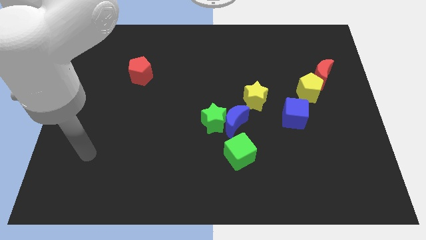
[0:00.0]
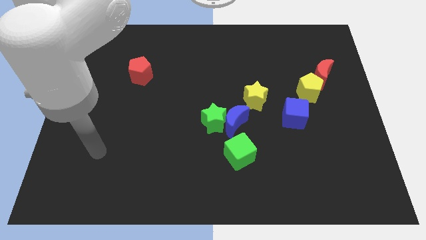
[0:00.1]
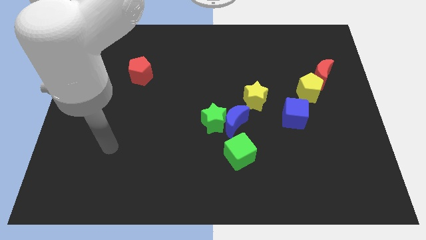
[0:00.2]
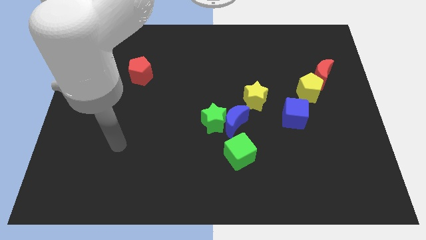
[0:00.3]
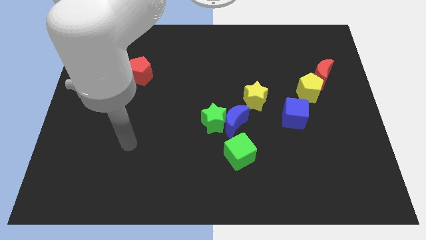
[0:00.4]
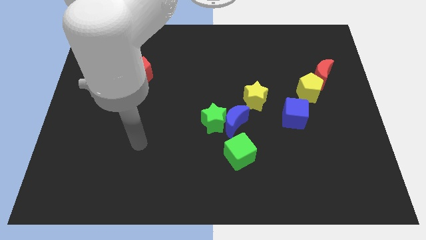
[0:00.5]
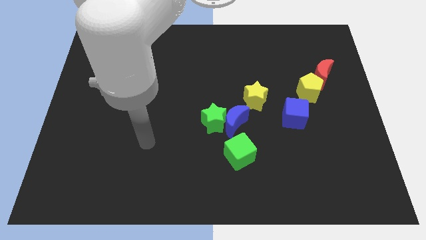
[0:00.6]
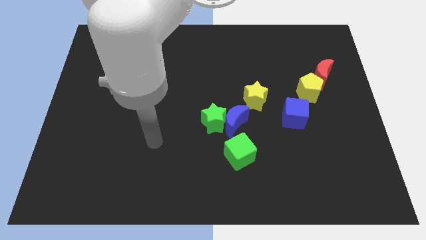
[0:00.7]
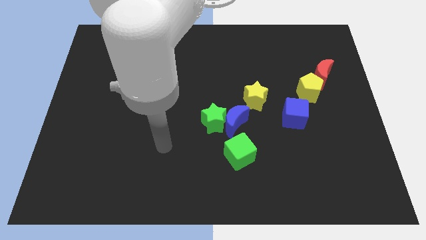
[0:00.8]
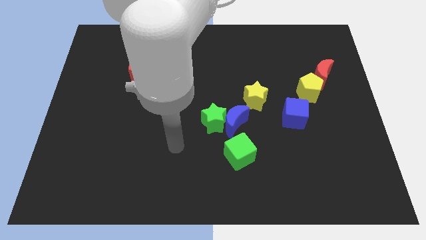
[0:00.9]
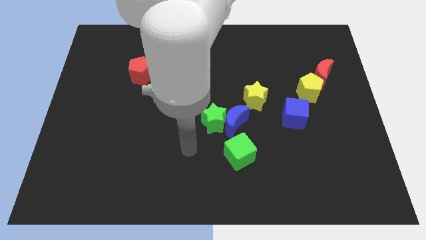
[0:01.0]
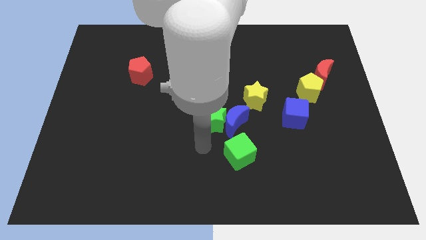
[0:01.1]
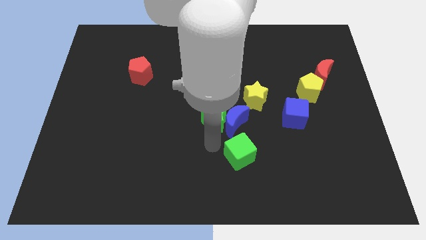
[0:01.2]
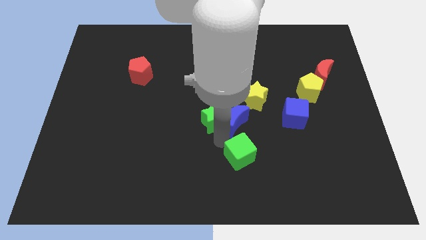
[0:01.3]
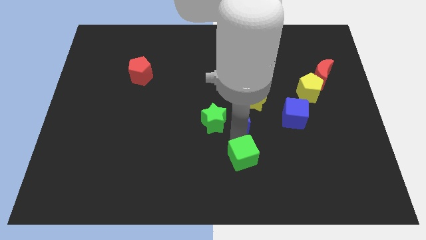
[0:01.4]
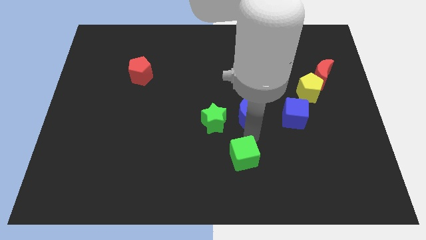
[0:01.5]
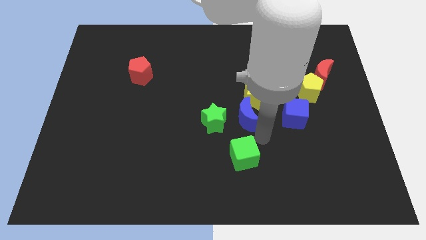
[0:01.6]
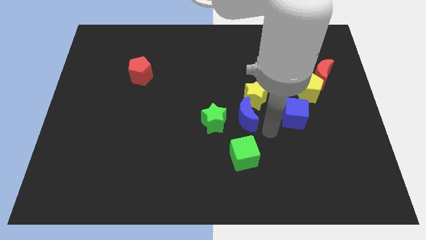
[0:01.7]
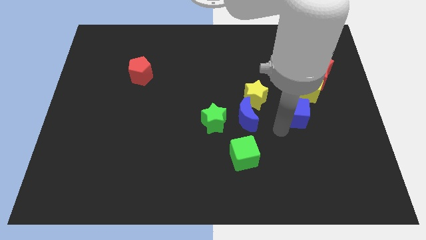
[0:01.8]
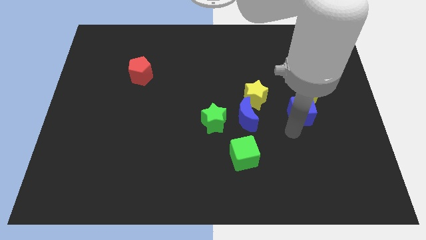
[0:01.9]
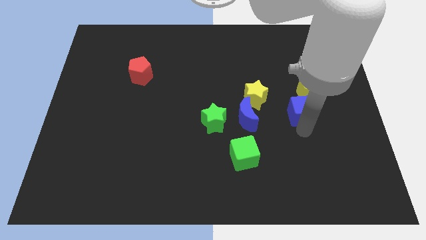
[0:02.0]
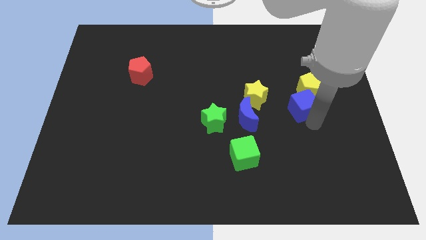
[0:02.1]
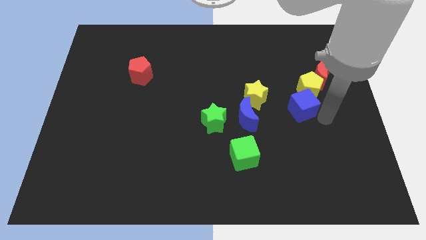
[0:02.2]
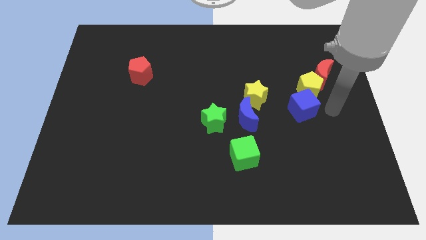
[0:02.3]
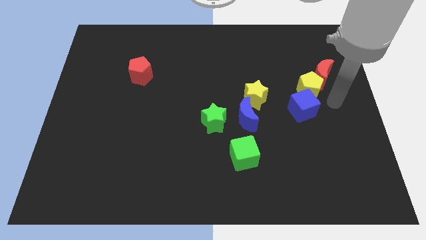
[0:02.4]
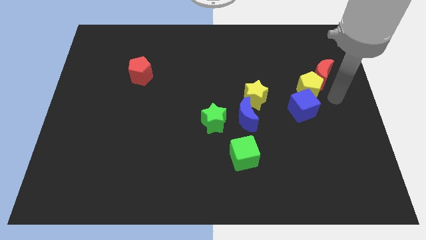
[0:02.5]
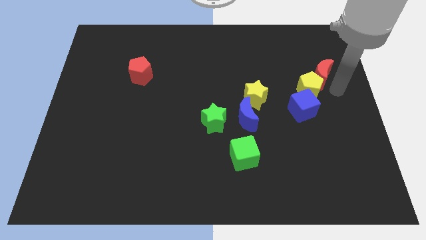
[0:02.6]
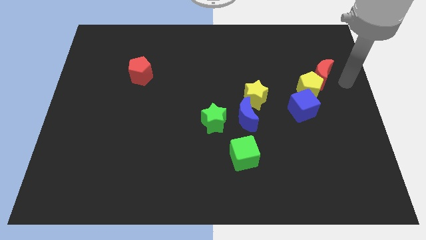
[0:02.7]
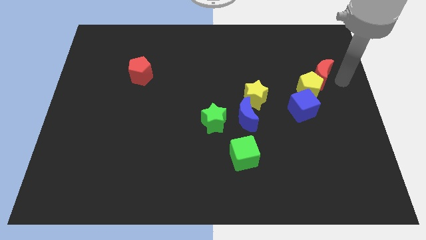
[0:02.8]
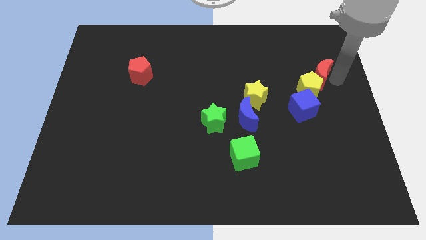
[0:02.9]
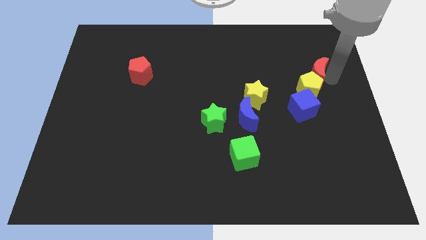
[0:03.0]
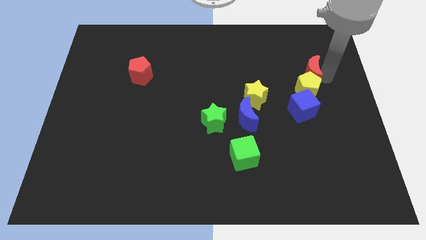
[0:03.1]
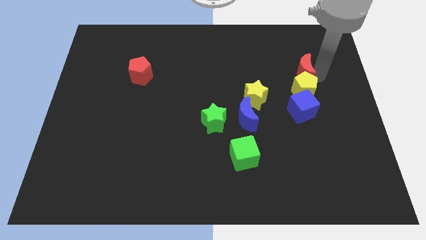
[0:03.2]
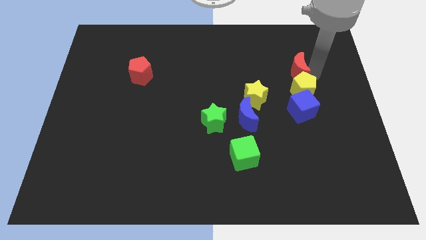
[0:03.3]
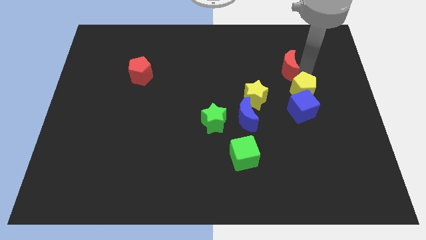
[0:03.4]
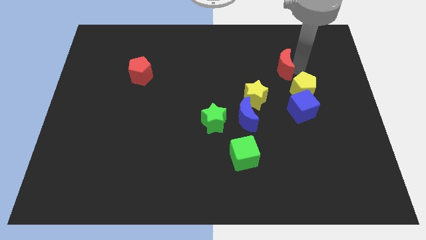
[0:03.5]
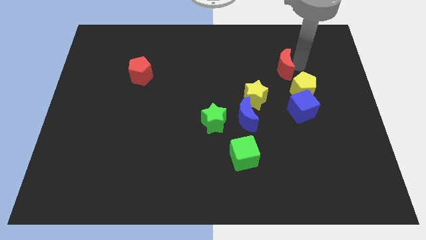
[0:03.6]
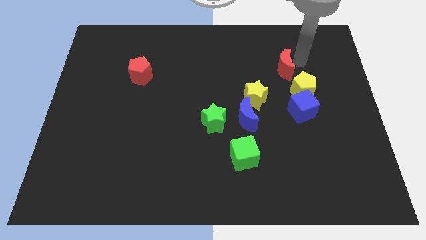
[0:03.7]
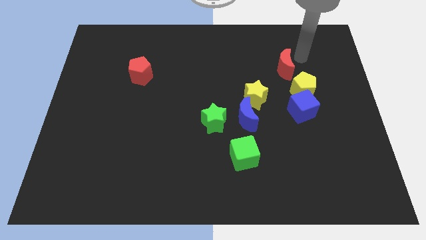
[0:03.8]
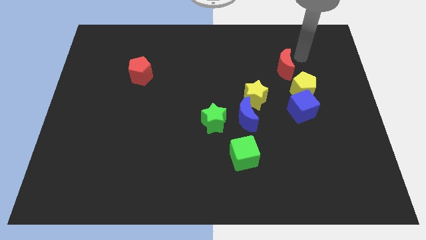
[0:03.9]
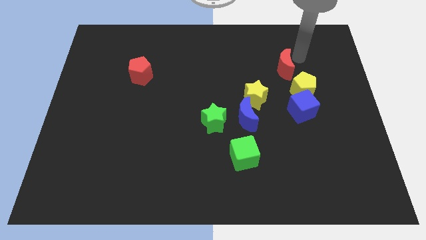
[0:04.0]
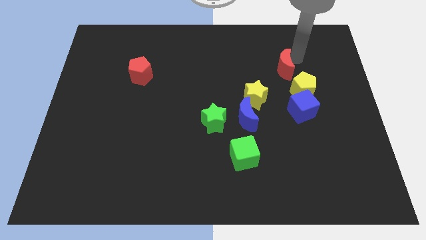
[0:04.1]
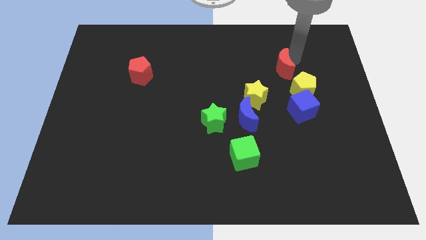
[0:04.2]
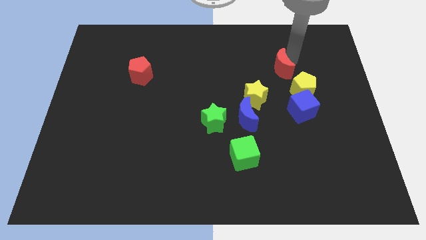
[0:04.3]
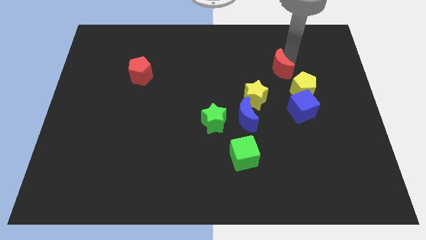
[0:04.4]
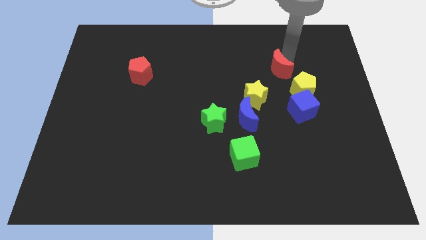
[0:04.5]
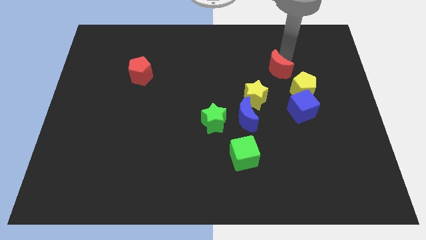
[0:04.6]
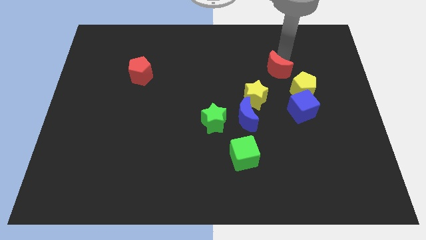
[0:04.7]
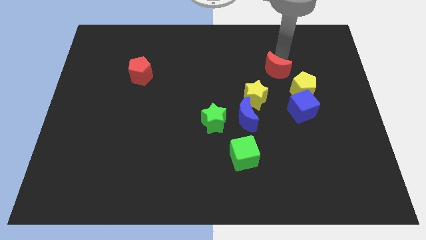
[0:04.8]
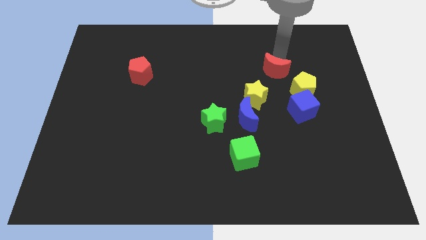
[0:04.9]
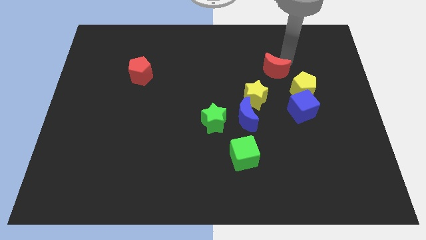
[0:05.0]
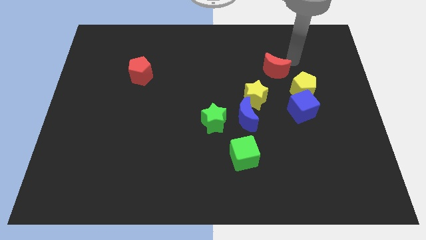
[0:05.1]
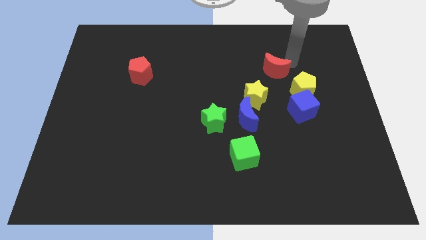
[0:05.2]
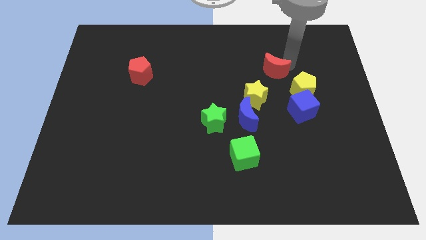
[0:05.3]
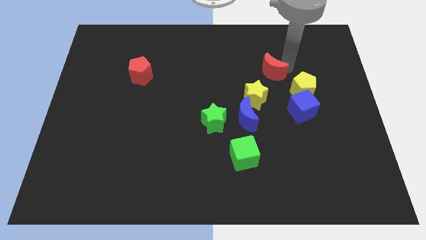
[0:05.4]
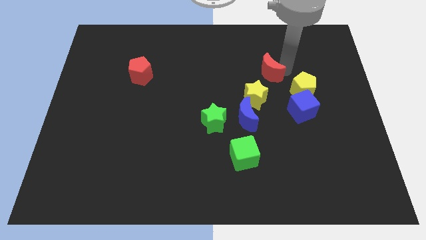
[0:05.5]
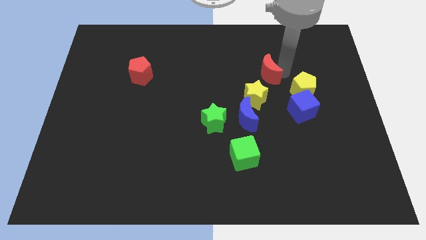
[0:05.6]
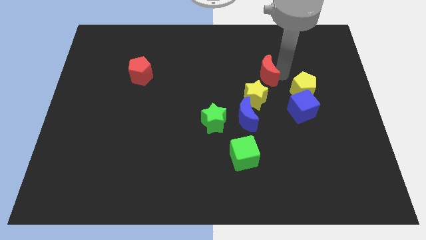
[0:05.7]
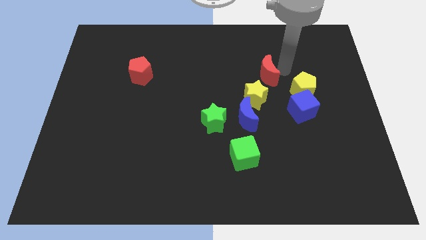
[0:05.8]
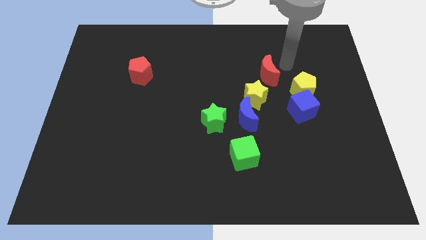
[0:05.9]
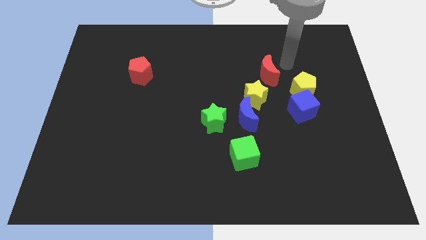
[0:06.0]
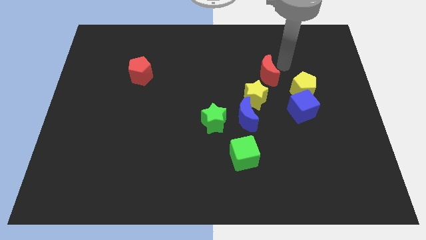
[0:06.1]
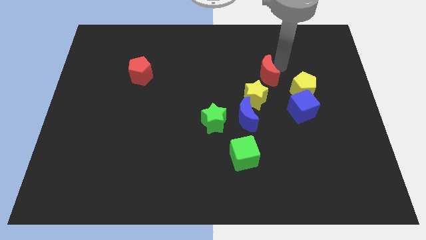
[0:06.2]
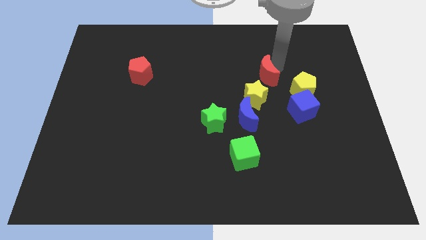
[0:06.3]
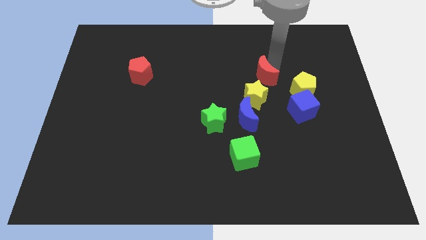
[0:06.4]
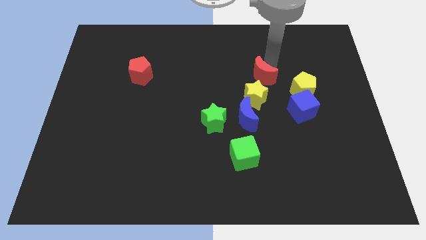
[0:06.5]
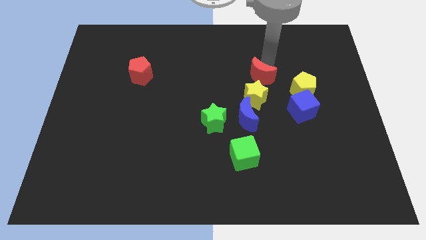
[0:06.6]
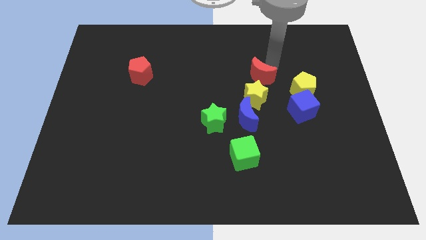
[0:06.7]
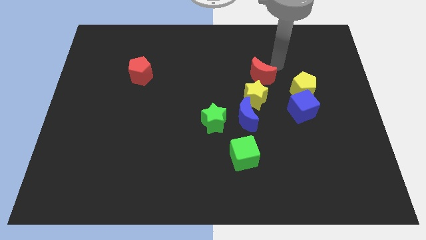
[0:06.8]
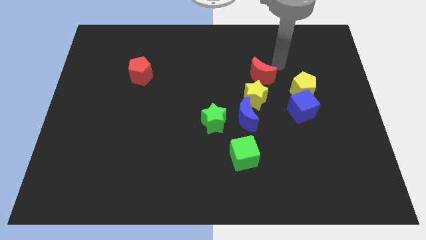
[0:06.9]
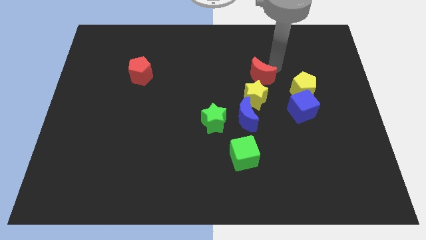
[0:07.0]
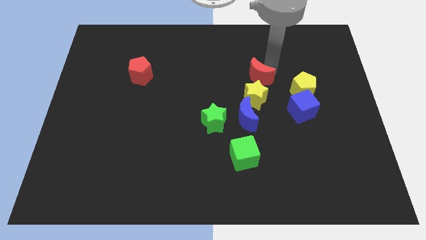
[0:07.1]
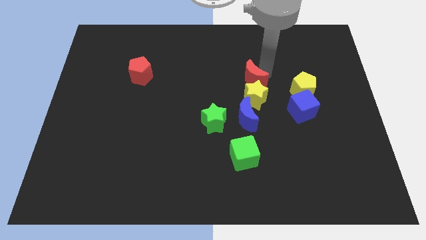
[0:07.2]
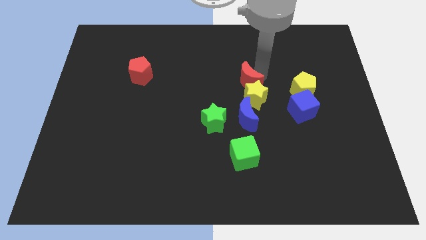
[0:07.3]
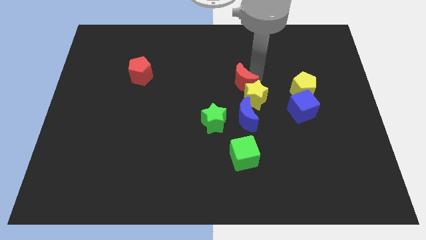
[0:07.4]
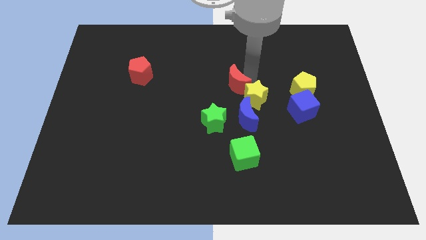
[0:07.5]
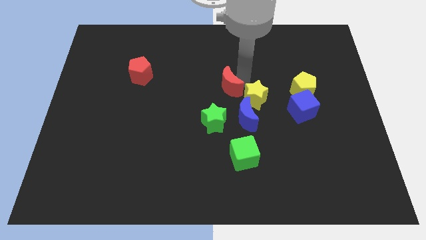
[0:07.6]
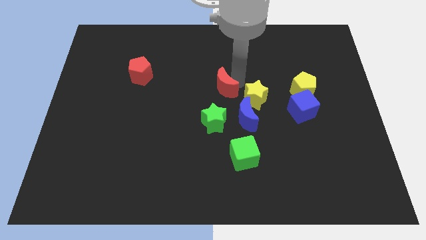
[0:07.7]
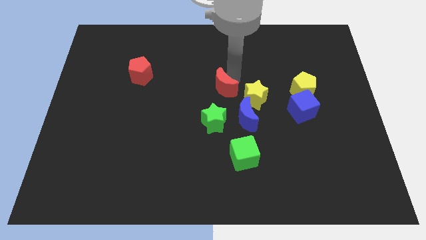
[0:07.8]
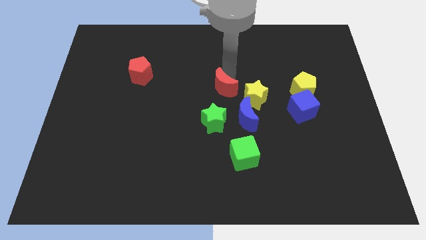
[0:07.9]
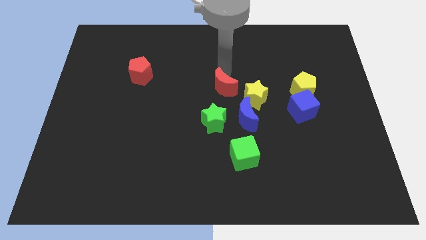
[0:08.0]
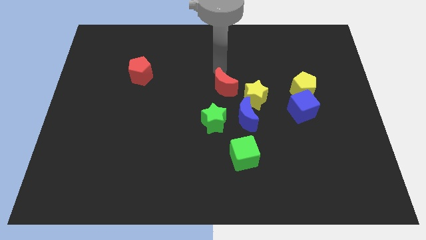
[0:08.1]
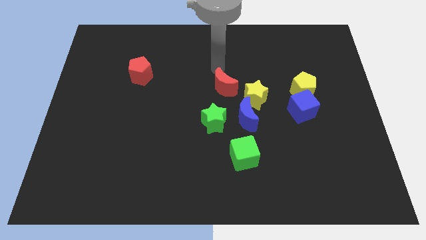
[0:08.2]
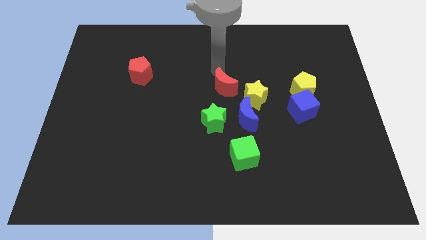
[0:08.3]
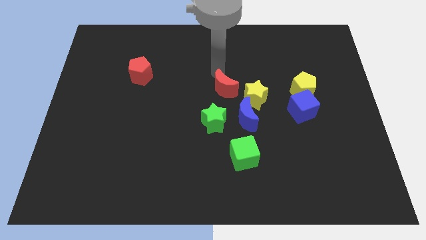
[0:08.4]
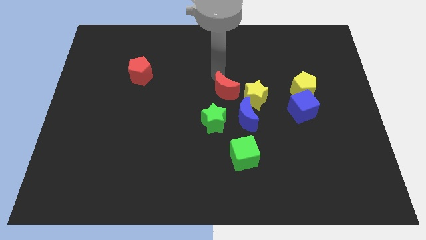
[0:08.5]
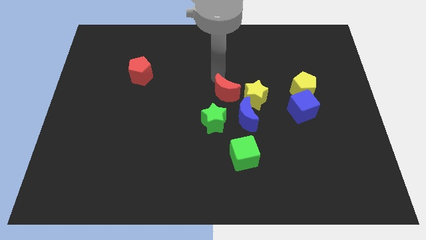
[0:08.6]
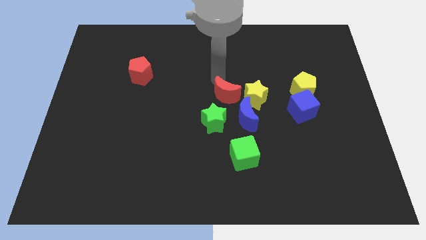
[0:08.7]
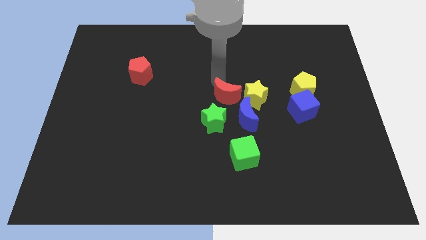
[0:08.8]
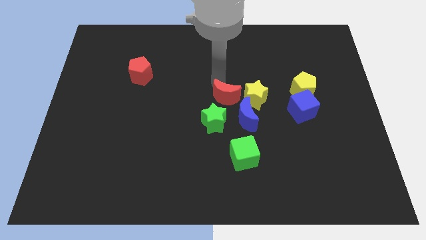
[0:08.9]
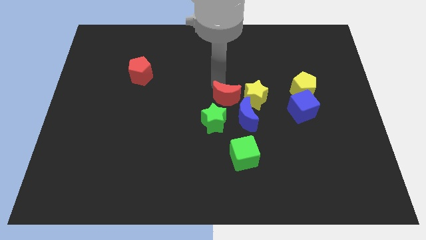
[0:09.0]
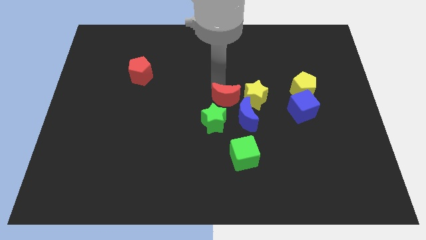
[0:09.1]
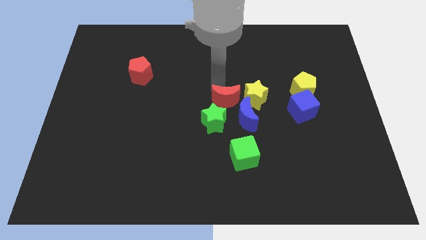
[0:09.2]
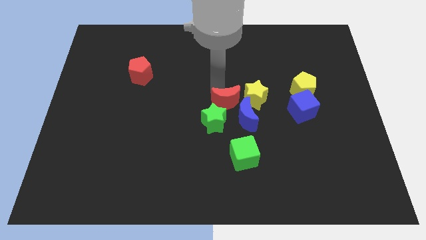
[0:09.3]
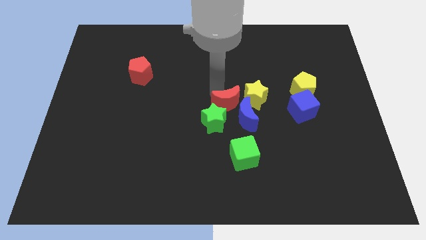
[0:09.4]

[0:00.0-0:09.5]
move the red moon close to the blue moon
